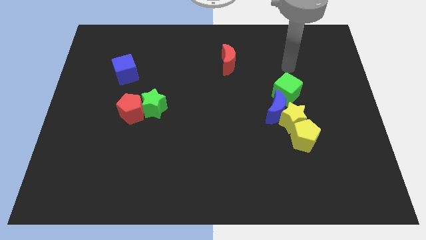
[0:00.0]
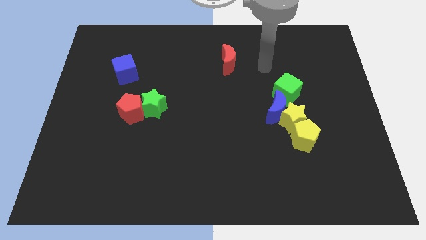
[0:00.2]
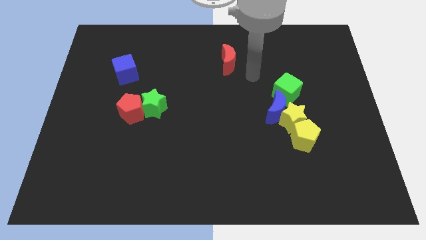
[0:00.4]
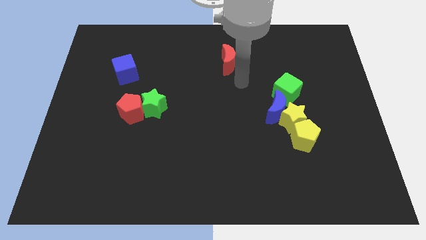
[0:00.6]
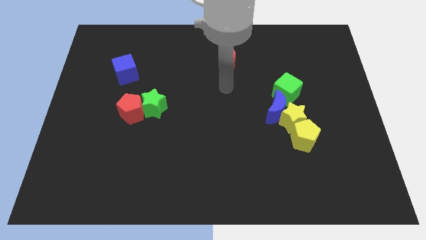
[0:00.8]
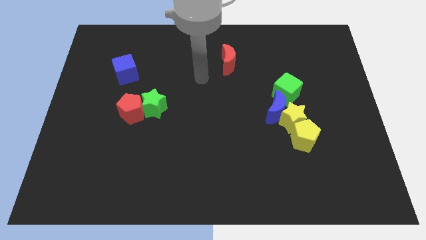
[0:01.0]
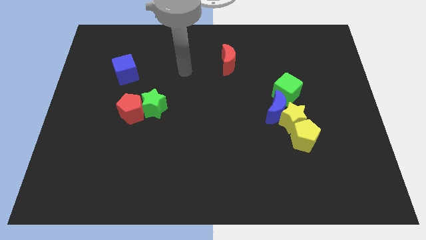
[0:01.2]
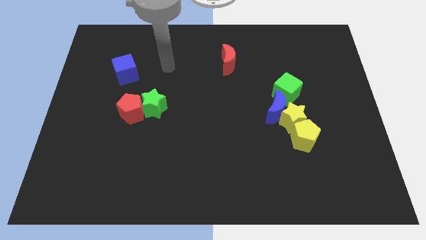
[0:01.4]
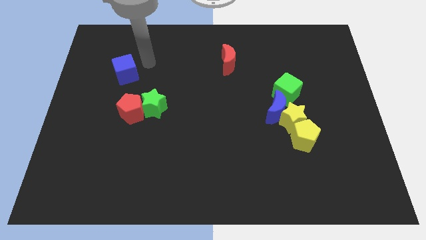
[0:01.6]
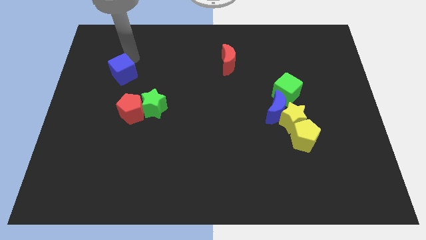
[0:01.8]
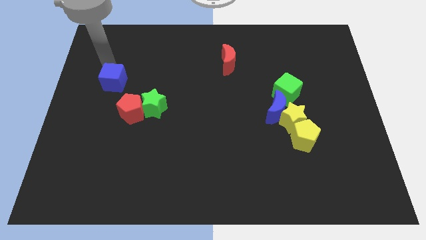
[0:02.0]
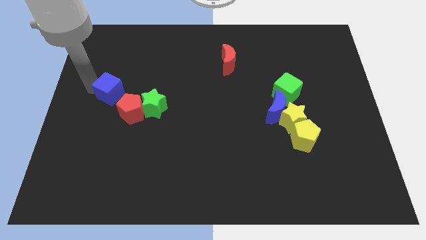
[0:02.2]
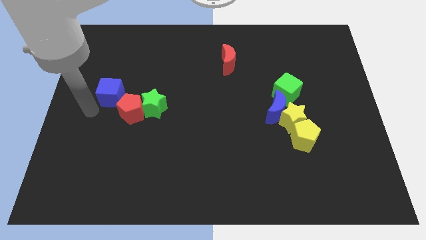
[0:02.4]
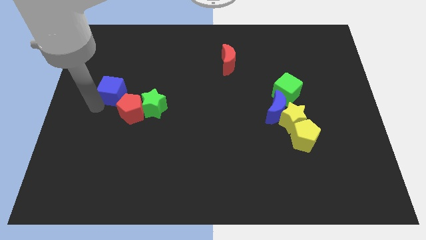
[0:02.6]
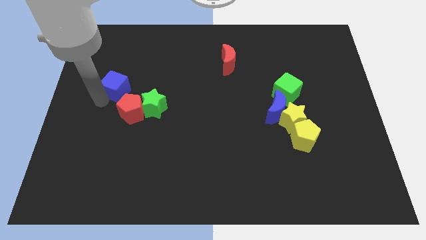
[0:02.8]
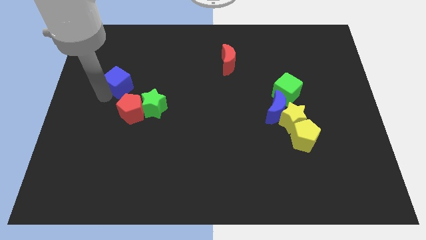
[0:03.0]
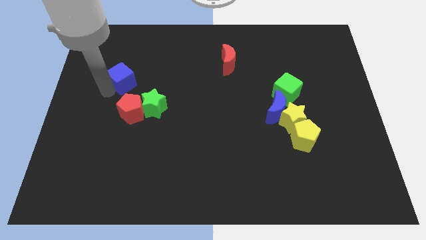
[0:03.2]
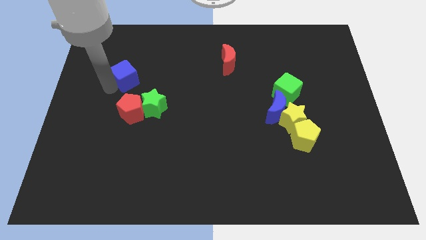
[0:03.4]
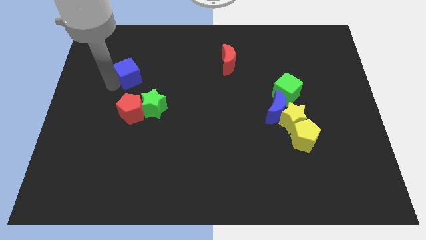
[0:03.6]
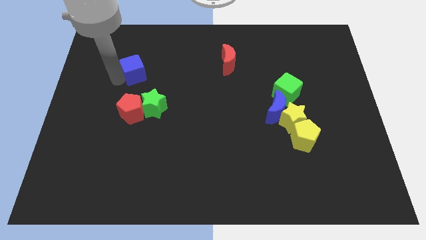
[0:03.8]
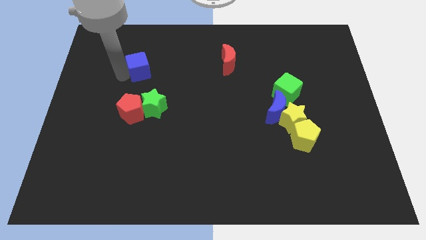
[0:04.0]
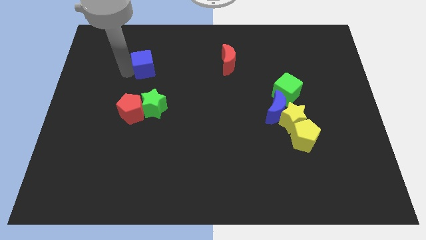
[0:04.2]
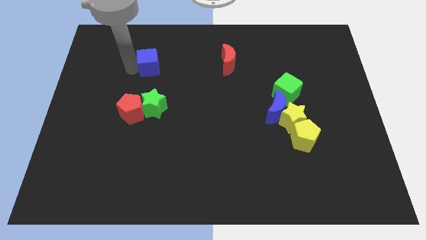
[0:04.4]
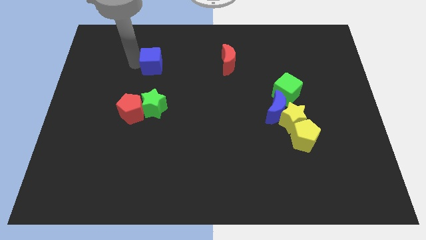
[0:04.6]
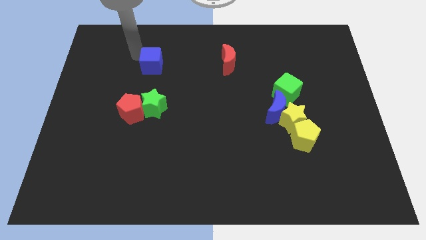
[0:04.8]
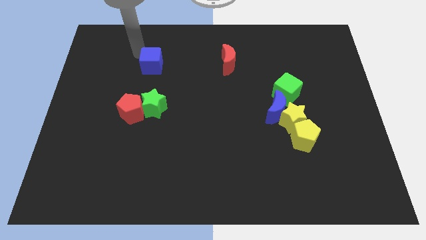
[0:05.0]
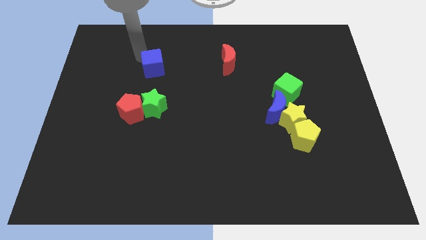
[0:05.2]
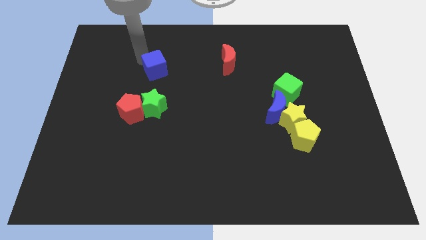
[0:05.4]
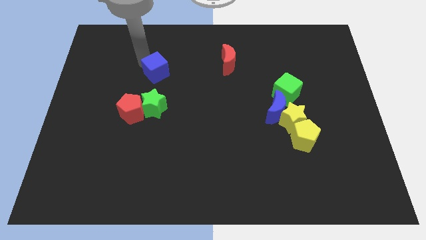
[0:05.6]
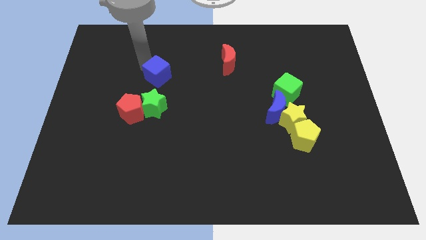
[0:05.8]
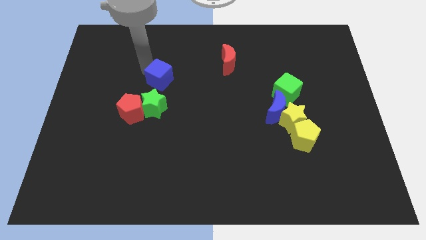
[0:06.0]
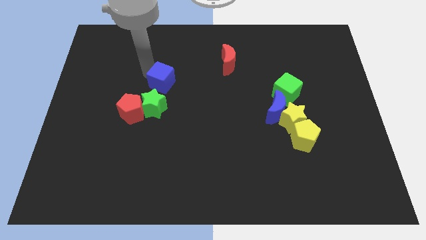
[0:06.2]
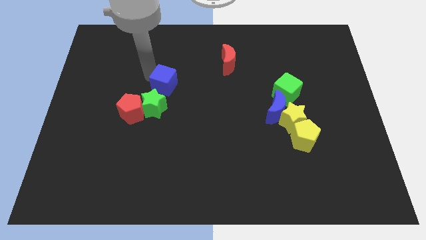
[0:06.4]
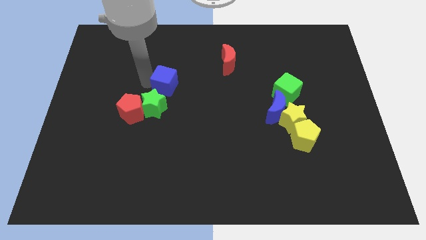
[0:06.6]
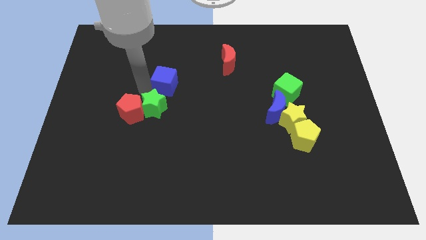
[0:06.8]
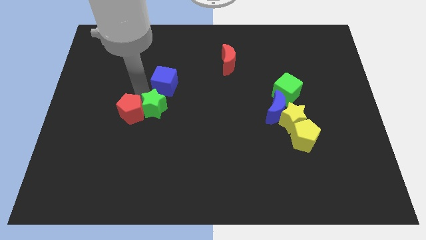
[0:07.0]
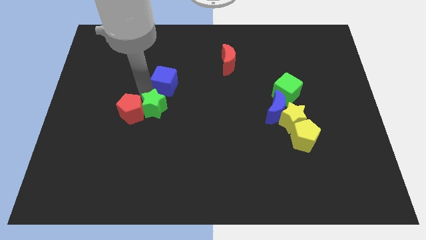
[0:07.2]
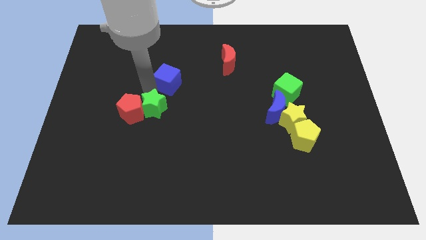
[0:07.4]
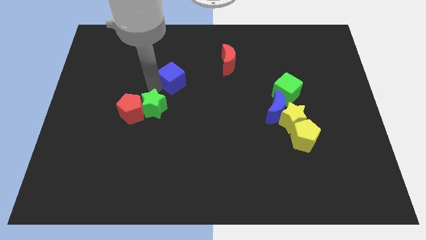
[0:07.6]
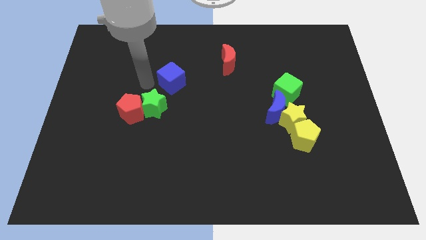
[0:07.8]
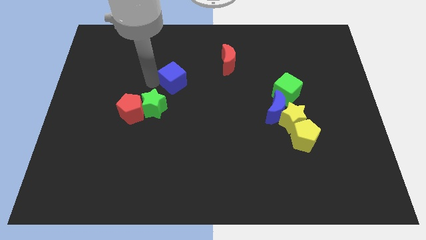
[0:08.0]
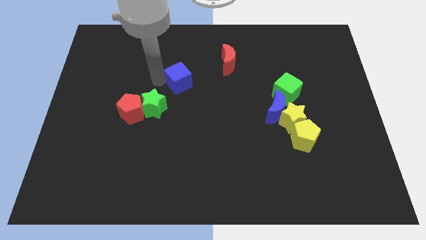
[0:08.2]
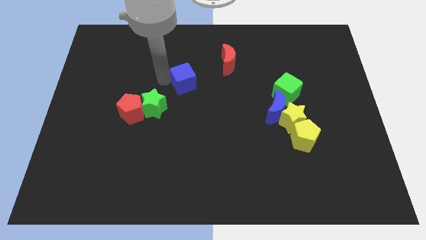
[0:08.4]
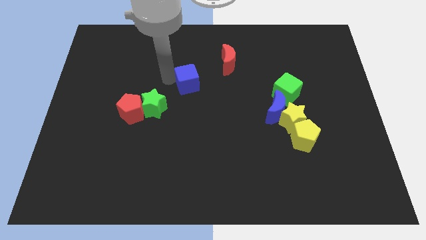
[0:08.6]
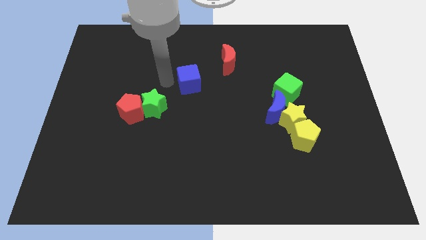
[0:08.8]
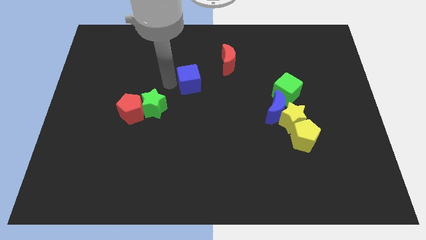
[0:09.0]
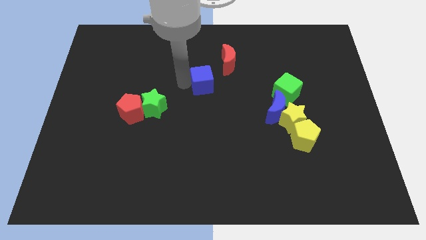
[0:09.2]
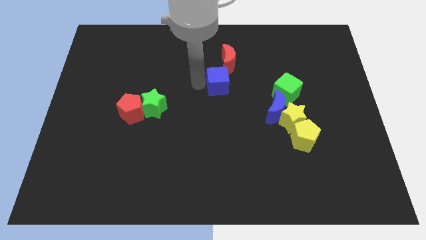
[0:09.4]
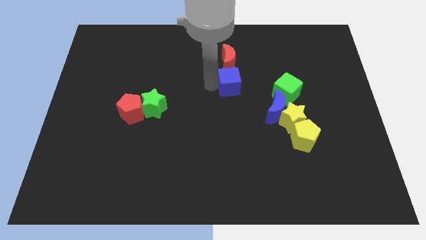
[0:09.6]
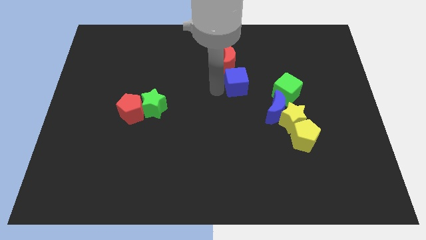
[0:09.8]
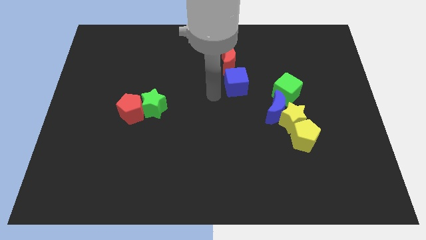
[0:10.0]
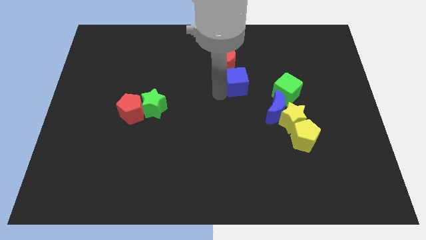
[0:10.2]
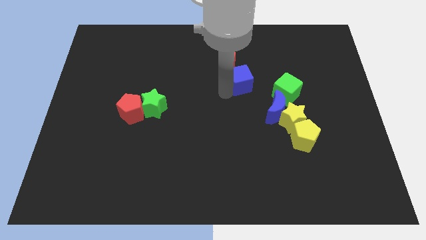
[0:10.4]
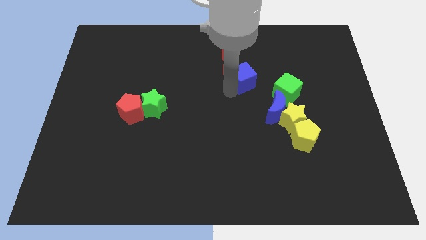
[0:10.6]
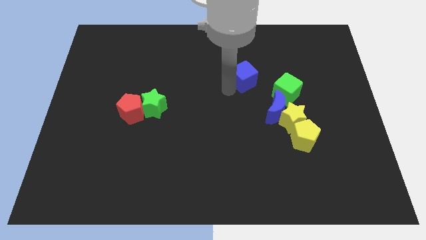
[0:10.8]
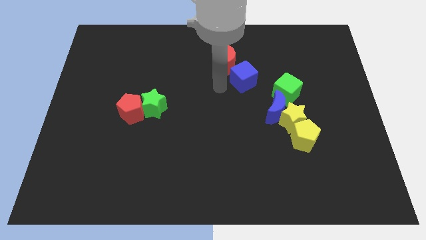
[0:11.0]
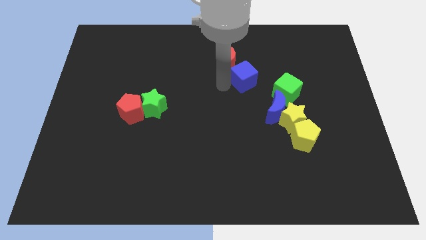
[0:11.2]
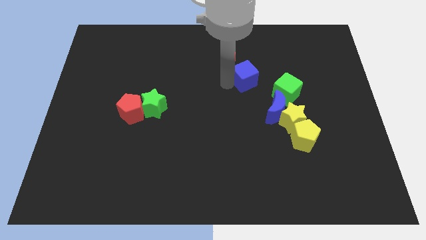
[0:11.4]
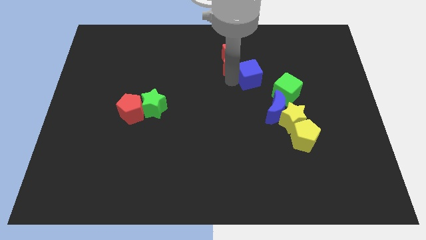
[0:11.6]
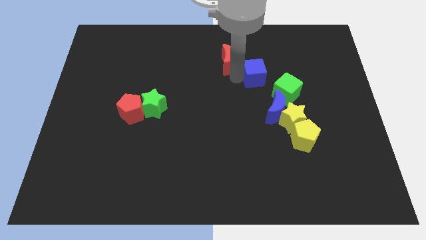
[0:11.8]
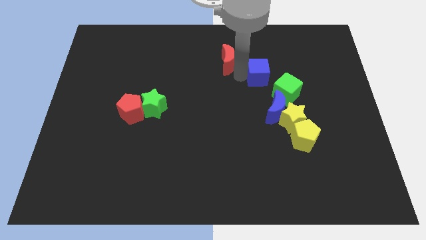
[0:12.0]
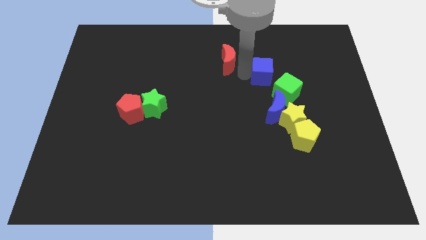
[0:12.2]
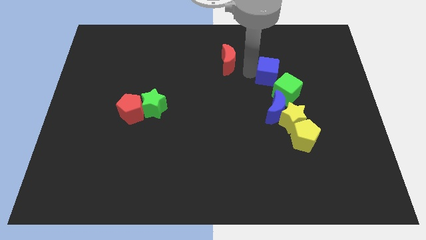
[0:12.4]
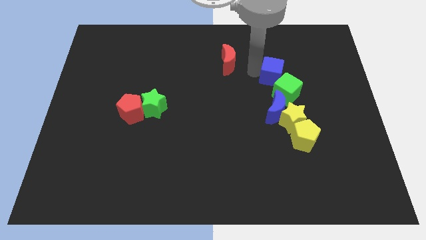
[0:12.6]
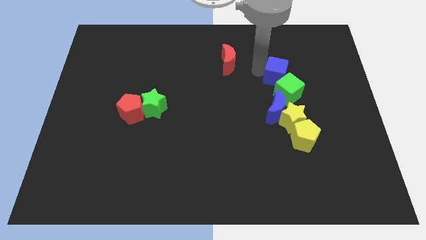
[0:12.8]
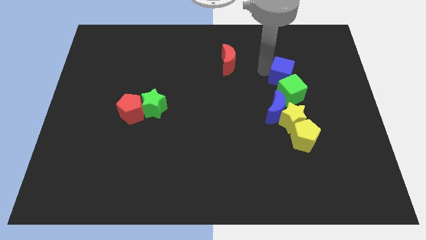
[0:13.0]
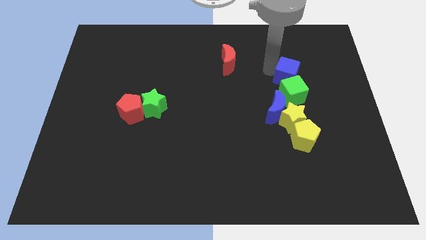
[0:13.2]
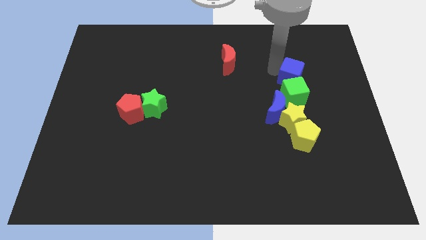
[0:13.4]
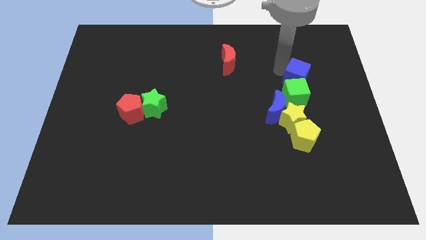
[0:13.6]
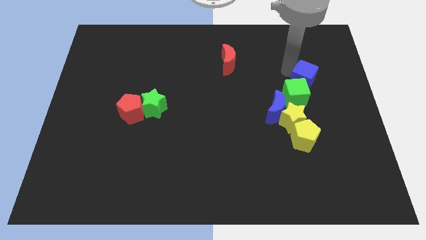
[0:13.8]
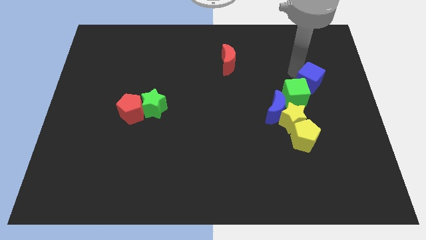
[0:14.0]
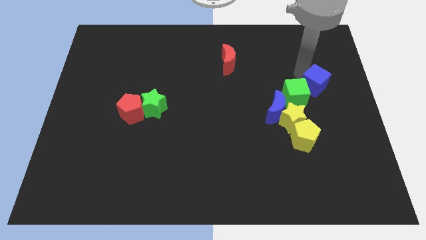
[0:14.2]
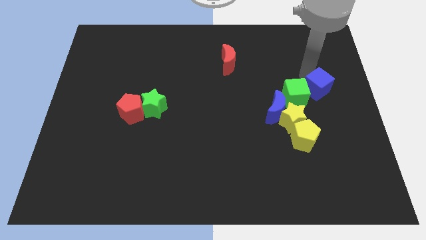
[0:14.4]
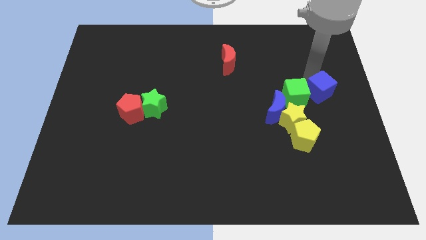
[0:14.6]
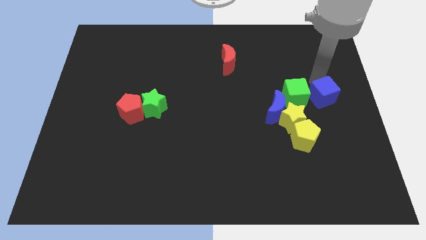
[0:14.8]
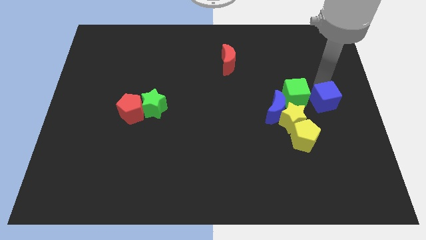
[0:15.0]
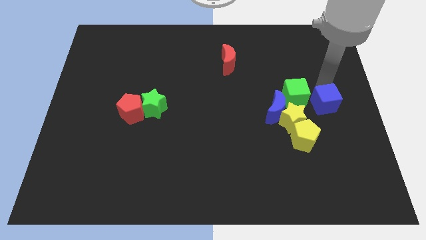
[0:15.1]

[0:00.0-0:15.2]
move the blue cube to the top right side of the yellow pentagon
